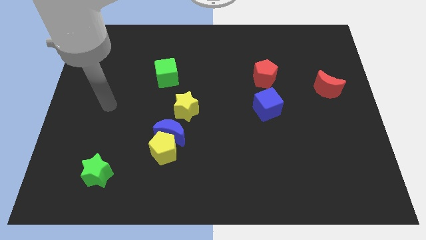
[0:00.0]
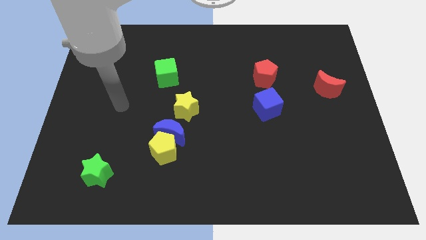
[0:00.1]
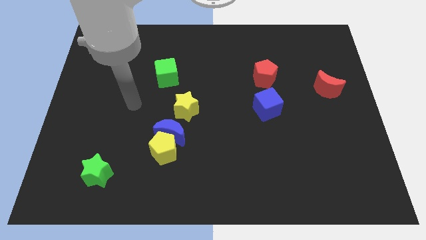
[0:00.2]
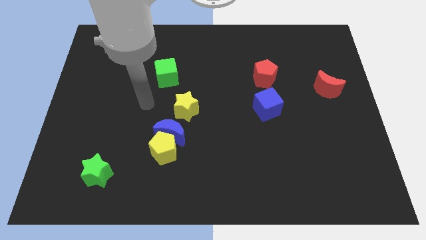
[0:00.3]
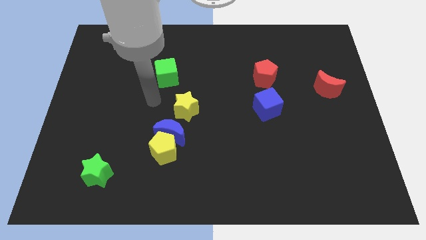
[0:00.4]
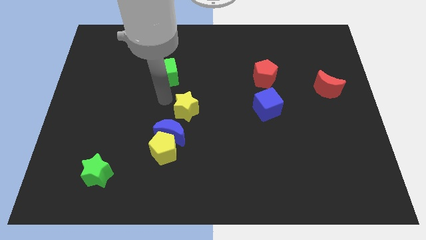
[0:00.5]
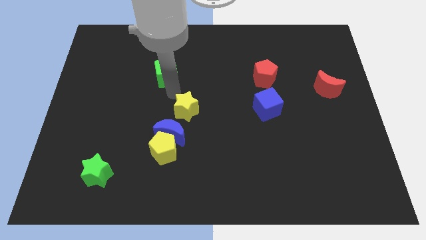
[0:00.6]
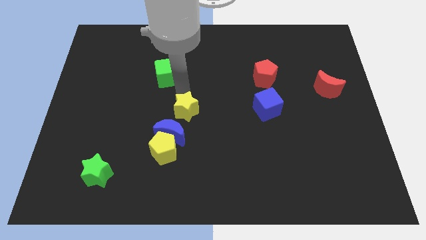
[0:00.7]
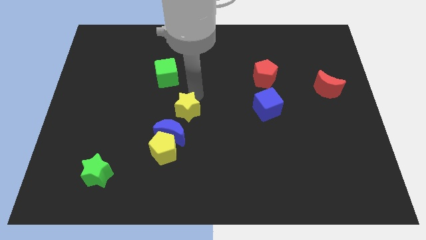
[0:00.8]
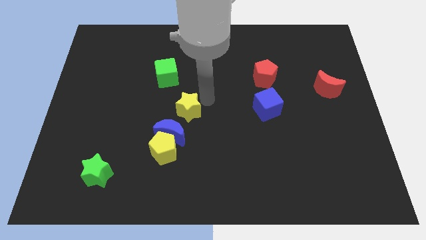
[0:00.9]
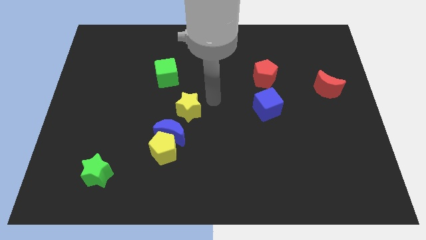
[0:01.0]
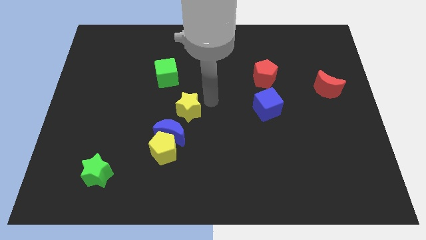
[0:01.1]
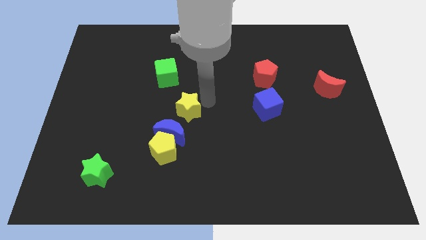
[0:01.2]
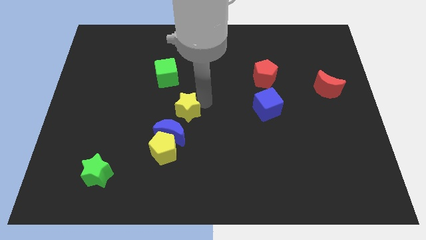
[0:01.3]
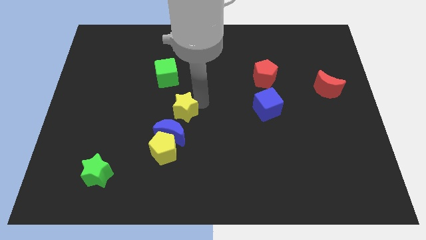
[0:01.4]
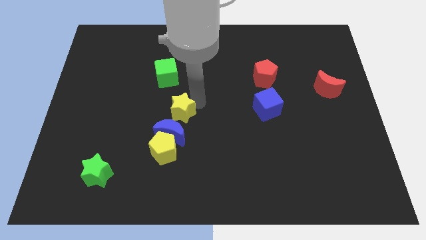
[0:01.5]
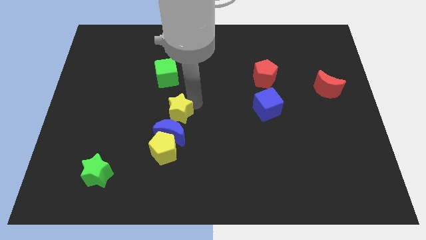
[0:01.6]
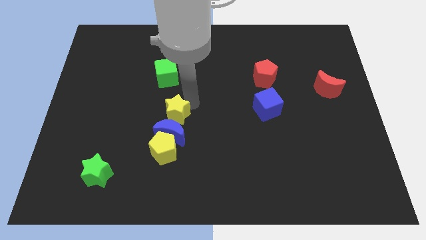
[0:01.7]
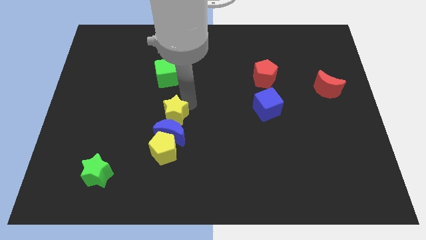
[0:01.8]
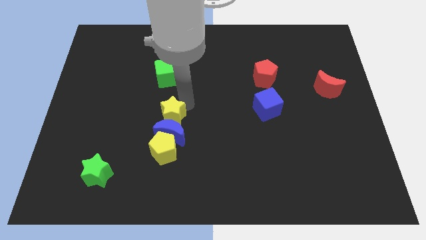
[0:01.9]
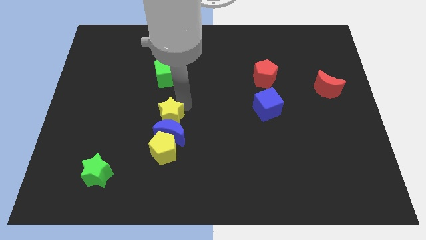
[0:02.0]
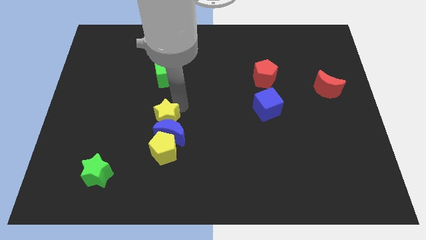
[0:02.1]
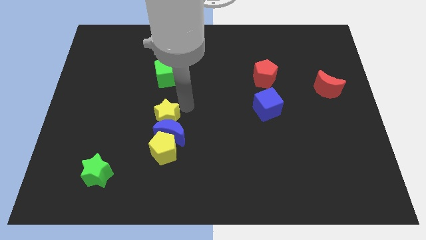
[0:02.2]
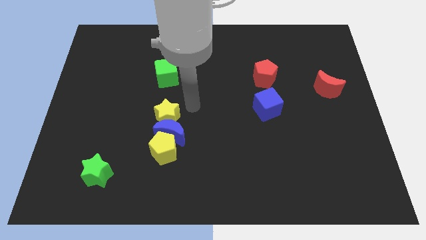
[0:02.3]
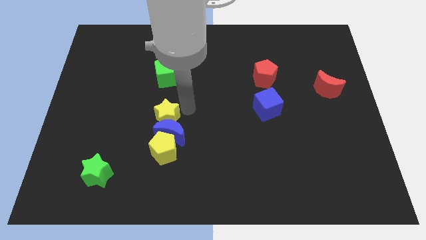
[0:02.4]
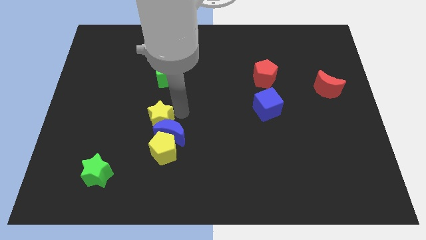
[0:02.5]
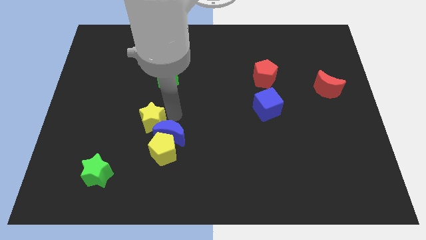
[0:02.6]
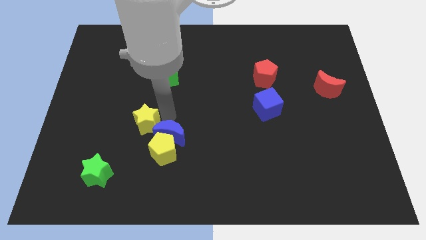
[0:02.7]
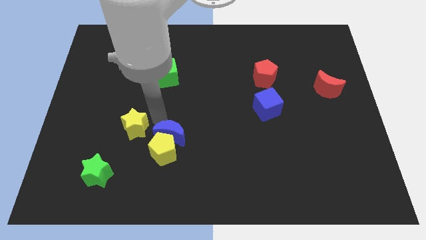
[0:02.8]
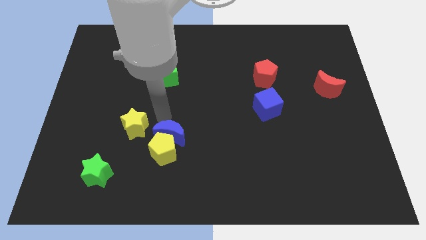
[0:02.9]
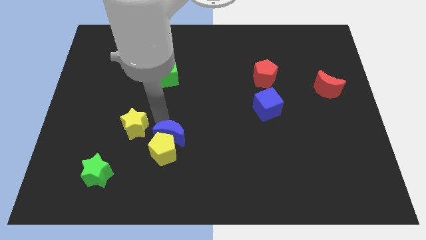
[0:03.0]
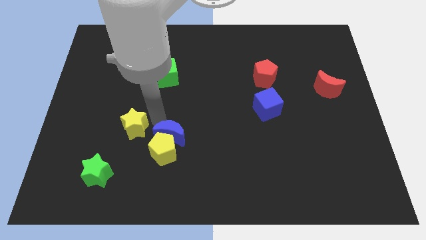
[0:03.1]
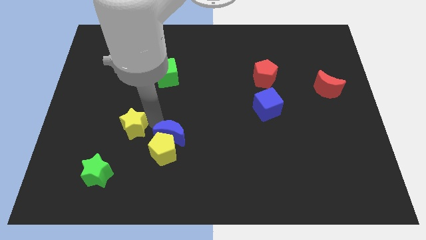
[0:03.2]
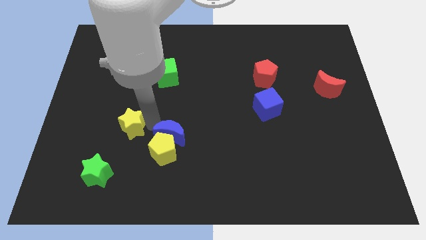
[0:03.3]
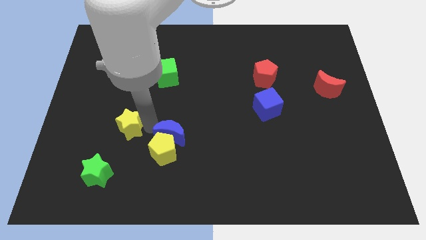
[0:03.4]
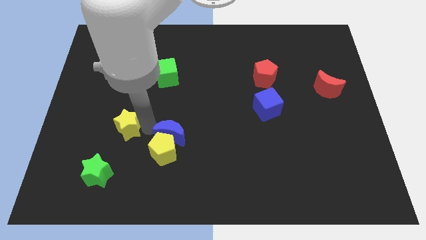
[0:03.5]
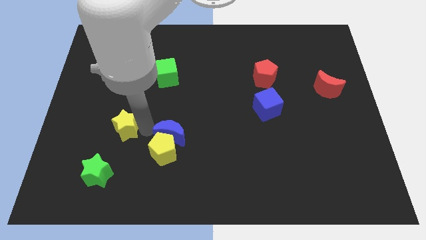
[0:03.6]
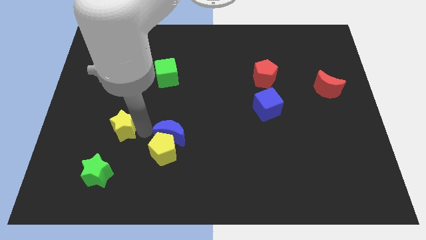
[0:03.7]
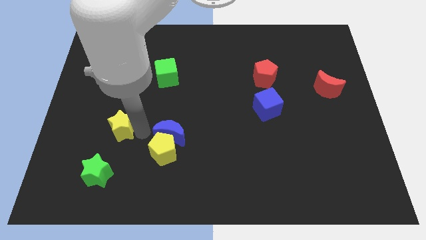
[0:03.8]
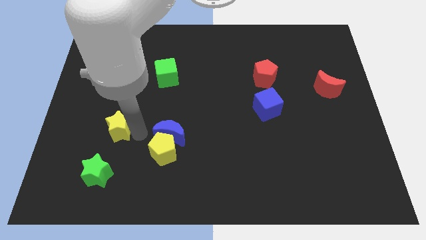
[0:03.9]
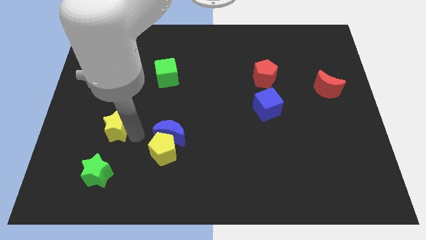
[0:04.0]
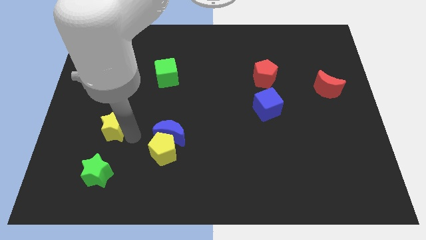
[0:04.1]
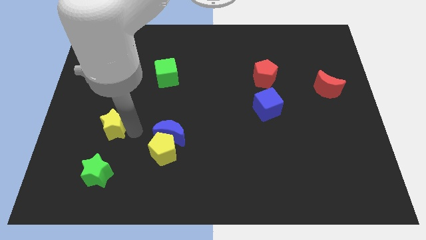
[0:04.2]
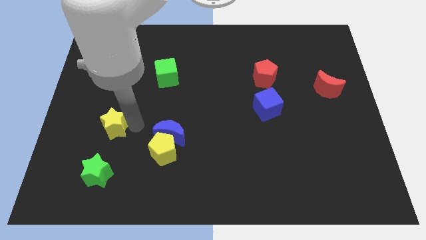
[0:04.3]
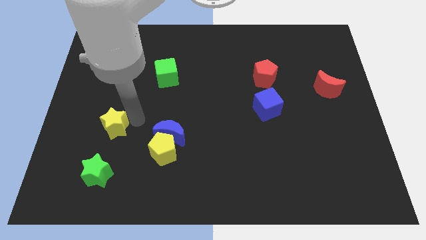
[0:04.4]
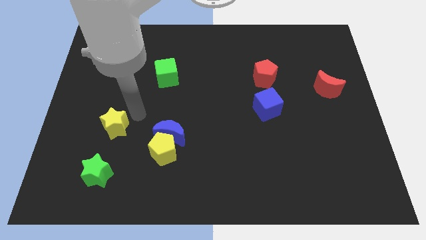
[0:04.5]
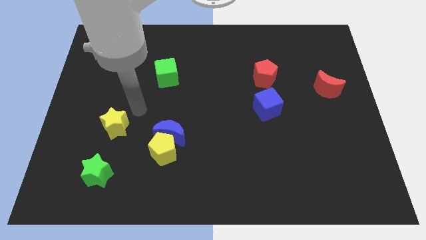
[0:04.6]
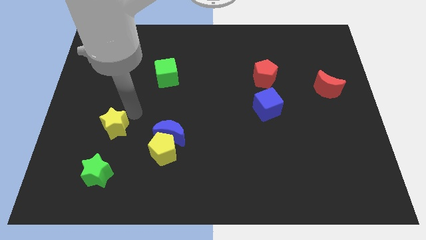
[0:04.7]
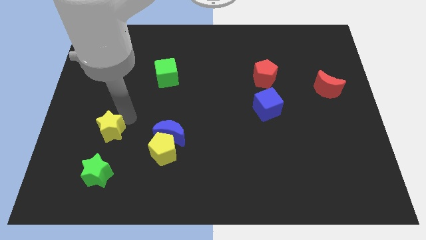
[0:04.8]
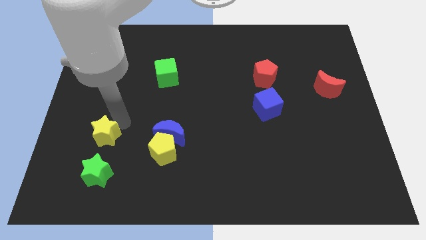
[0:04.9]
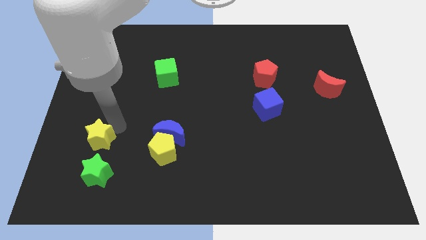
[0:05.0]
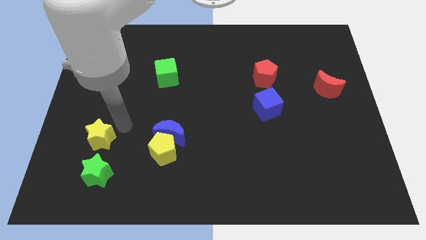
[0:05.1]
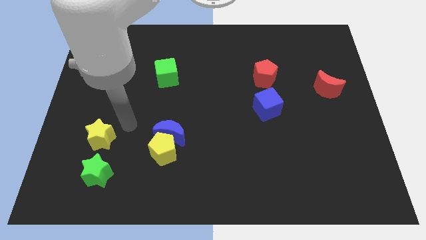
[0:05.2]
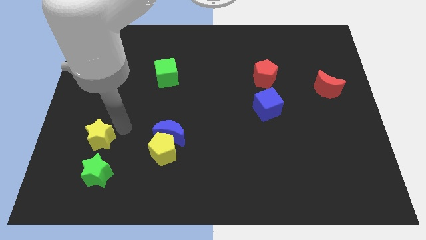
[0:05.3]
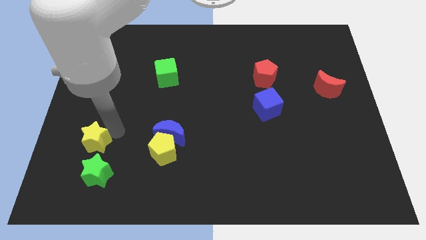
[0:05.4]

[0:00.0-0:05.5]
move the yellow star diagonally up and to the left of the green star

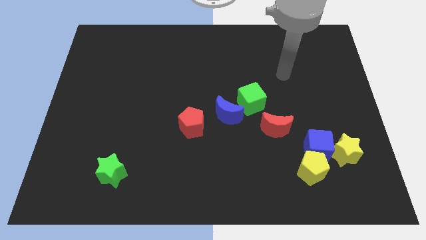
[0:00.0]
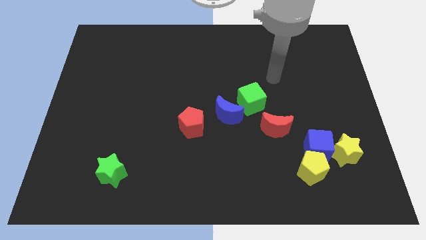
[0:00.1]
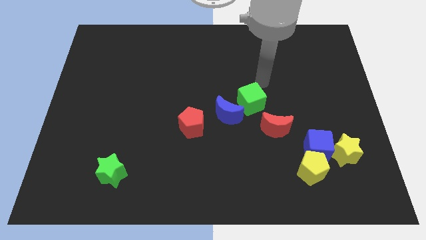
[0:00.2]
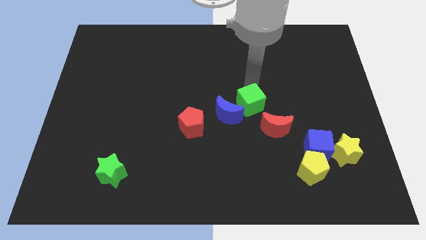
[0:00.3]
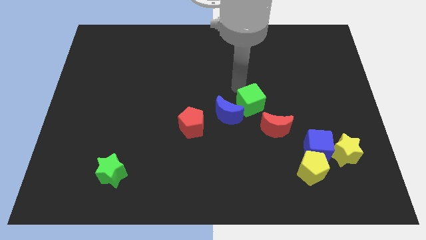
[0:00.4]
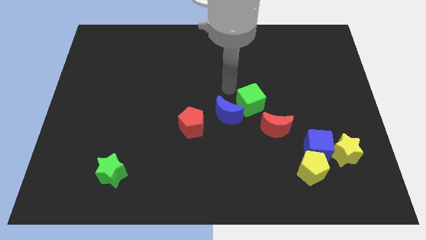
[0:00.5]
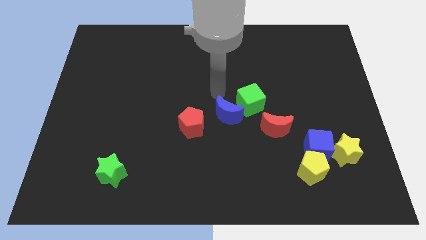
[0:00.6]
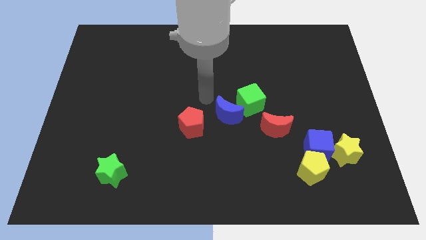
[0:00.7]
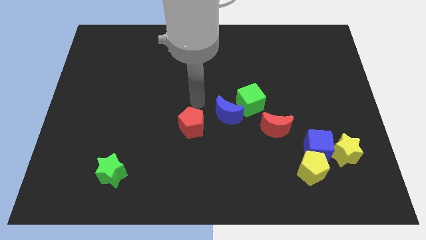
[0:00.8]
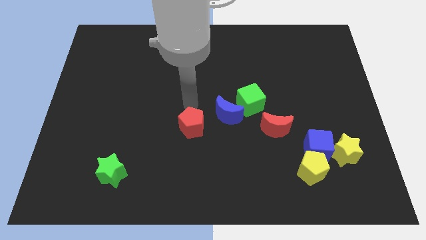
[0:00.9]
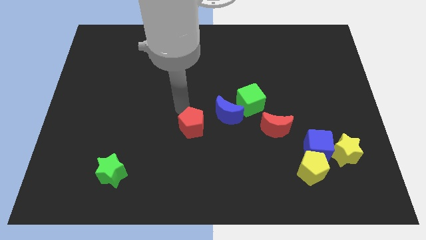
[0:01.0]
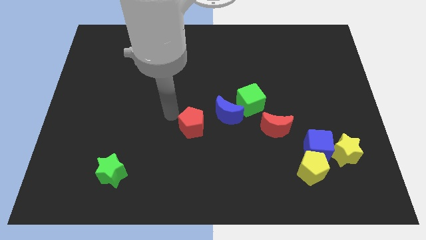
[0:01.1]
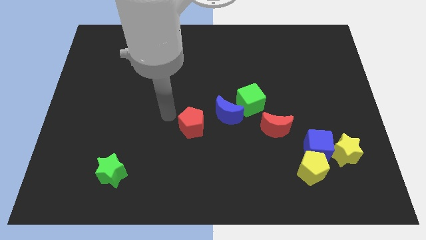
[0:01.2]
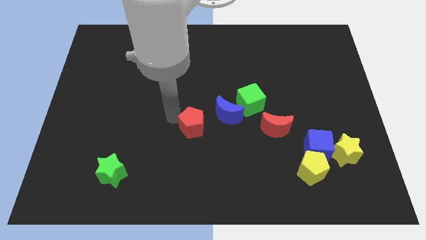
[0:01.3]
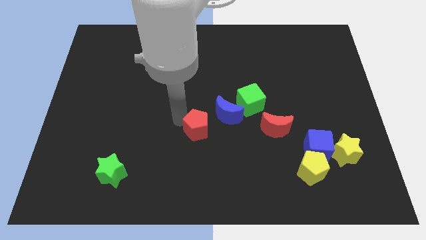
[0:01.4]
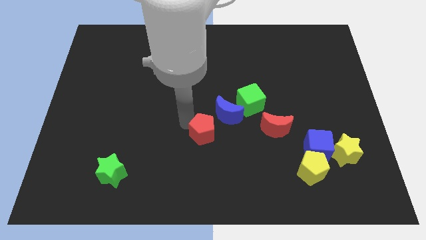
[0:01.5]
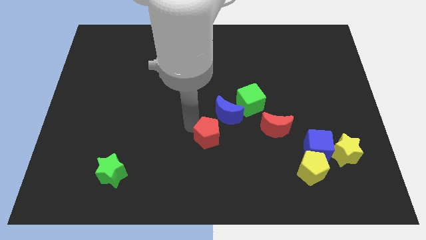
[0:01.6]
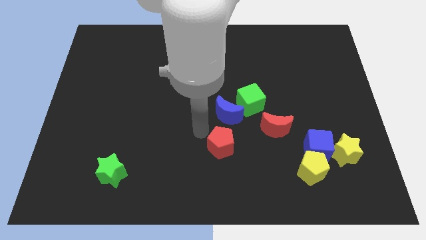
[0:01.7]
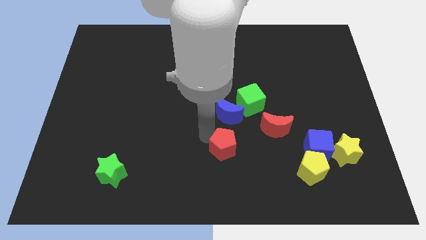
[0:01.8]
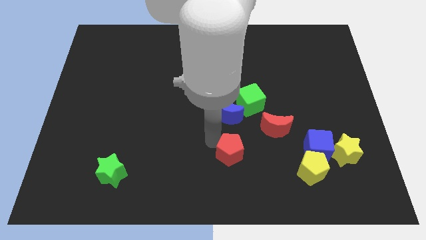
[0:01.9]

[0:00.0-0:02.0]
slide the red pentagon to the bottom left of the red moon
